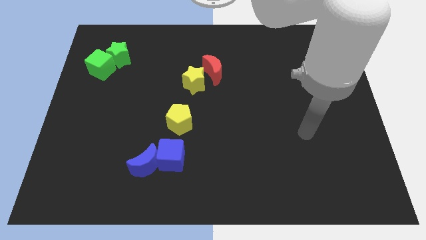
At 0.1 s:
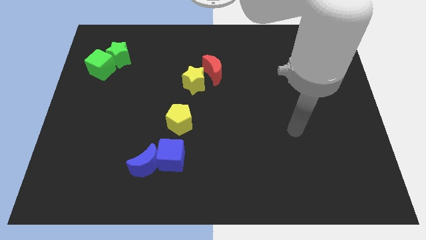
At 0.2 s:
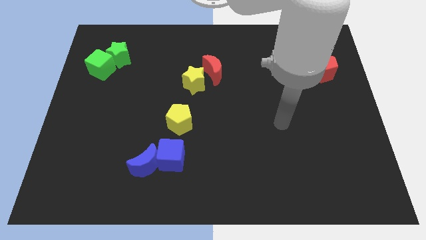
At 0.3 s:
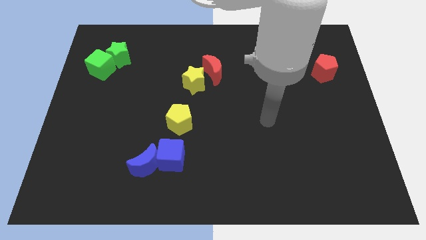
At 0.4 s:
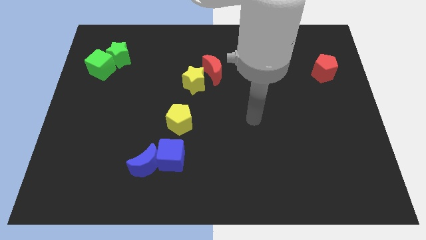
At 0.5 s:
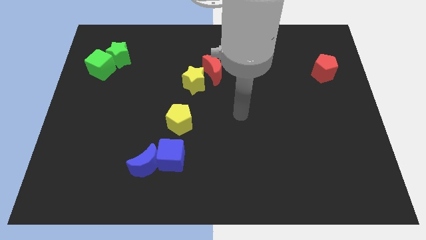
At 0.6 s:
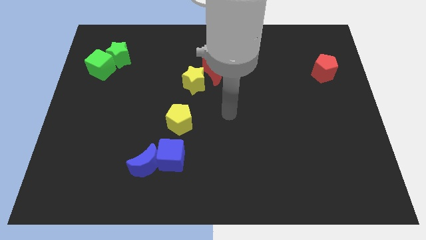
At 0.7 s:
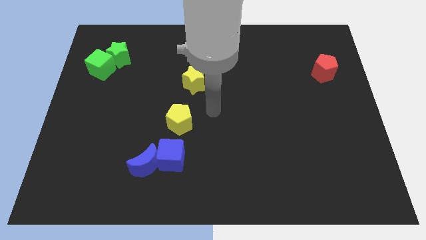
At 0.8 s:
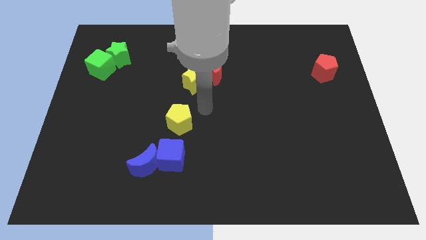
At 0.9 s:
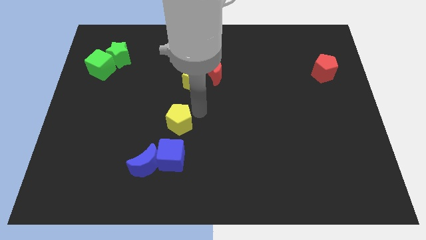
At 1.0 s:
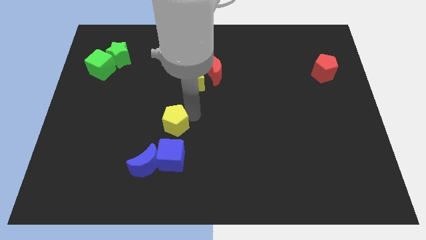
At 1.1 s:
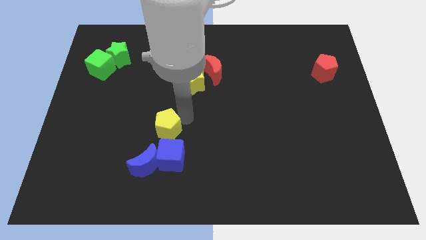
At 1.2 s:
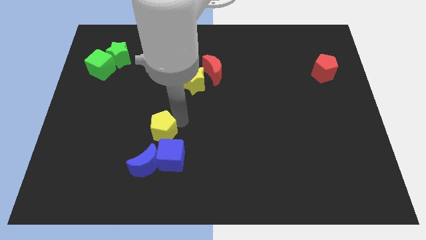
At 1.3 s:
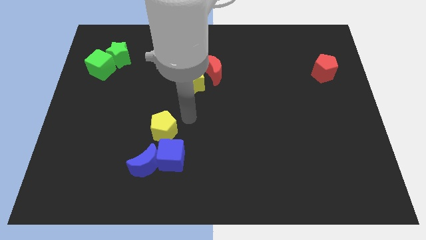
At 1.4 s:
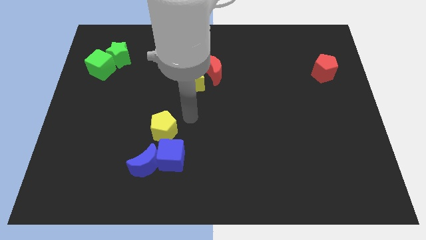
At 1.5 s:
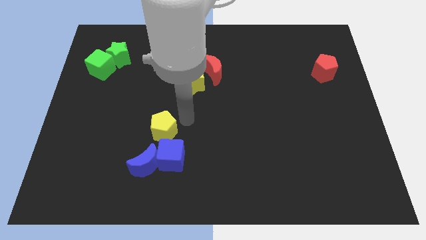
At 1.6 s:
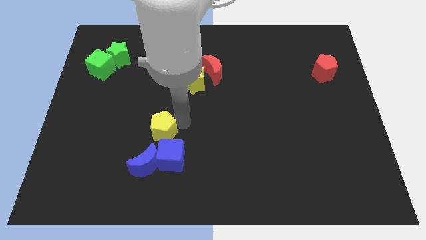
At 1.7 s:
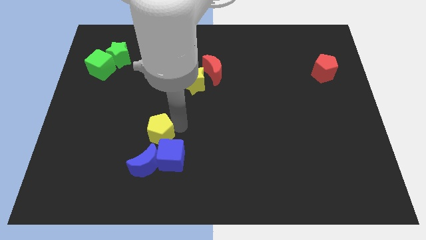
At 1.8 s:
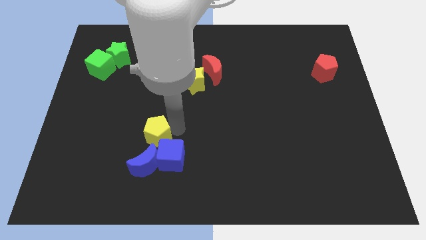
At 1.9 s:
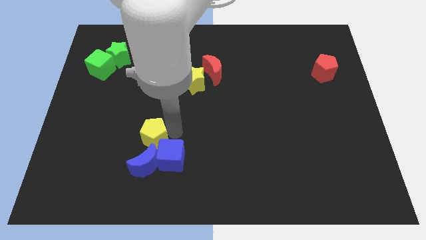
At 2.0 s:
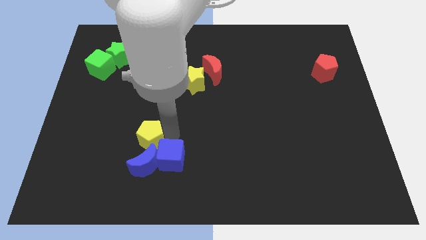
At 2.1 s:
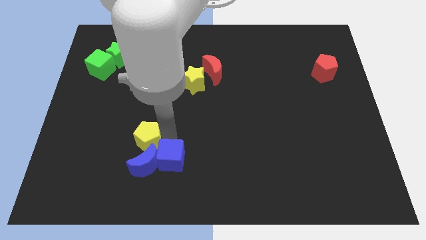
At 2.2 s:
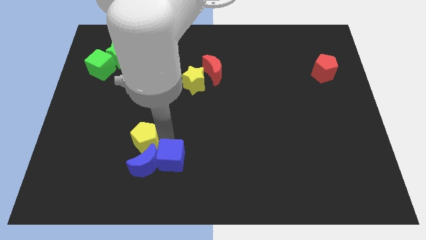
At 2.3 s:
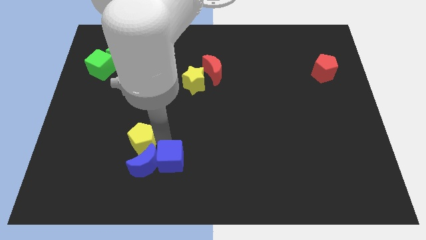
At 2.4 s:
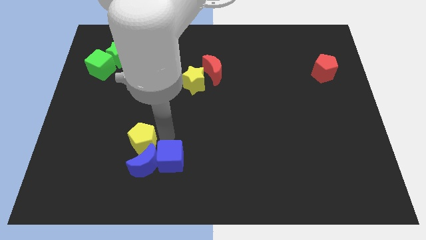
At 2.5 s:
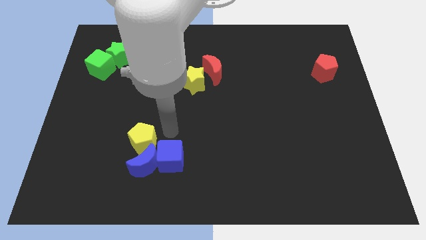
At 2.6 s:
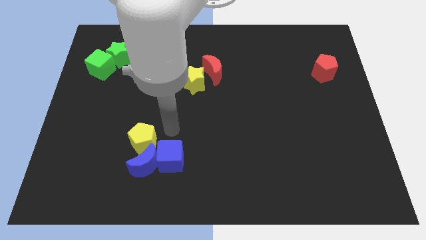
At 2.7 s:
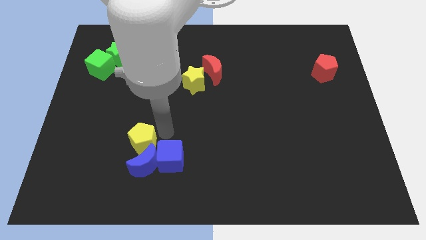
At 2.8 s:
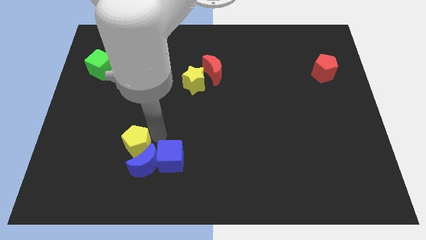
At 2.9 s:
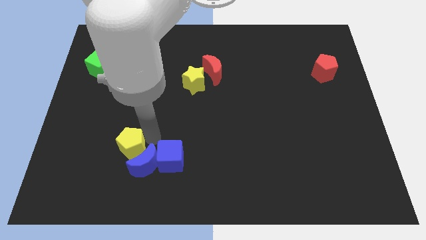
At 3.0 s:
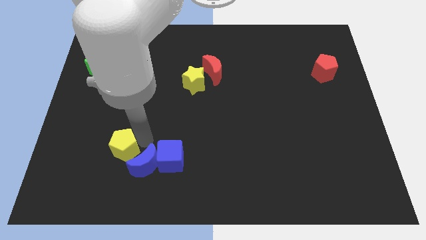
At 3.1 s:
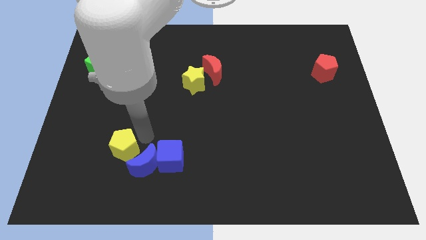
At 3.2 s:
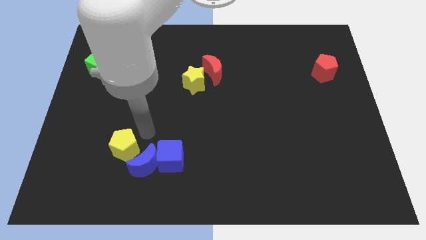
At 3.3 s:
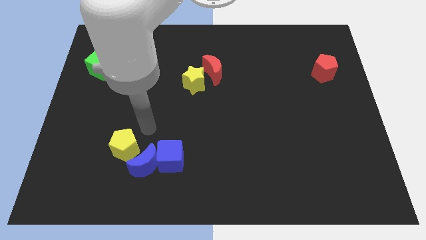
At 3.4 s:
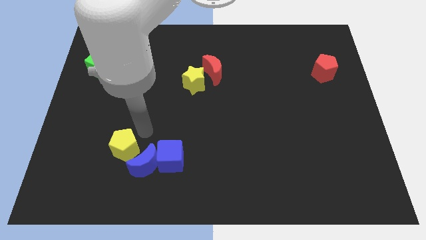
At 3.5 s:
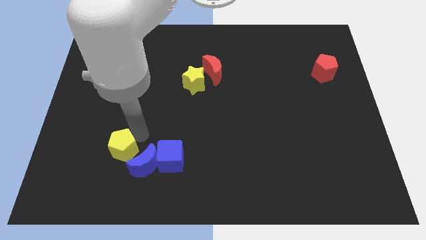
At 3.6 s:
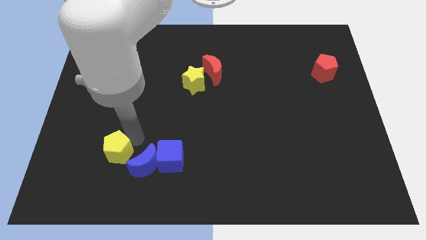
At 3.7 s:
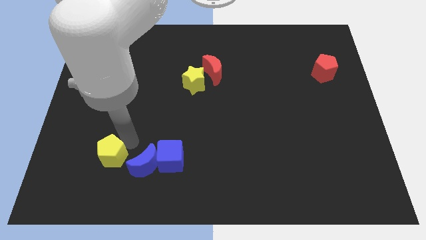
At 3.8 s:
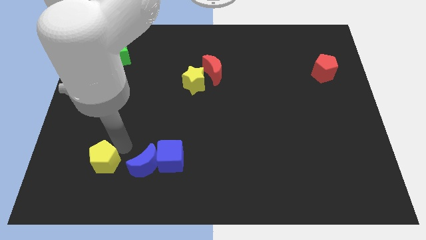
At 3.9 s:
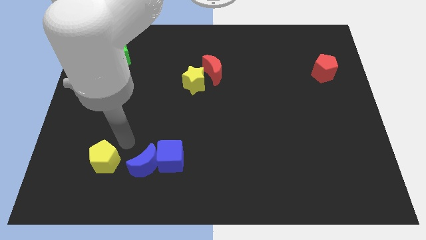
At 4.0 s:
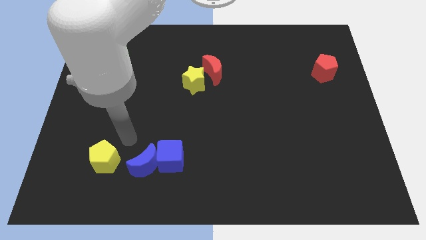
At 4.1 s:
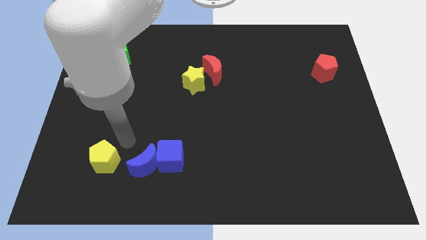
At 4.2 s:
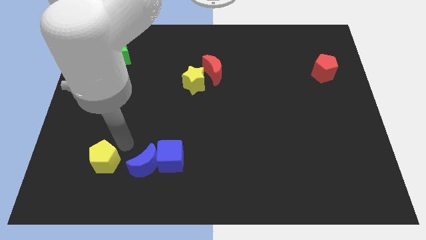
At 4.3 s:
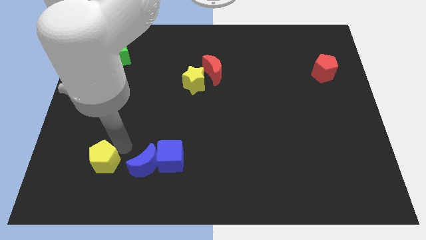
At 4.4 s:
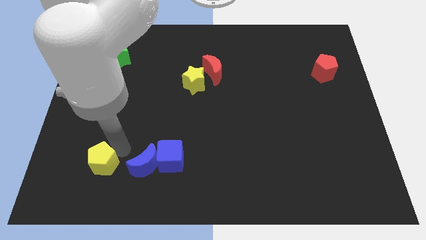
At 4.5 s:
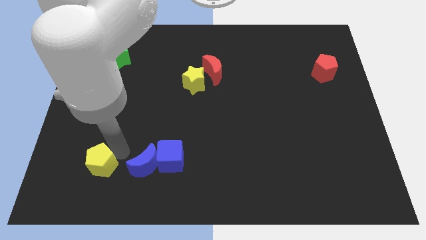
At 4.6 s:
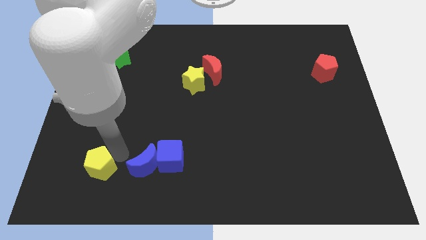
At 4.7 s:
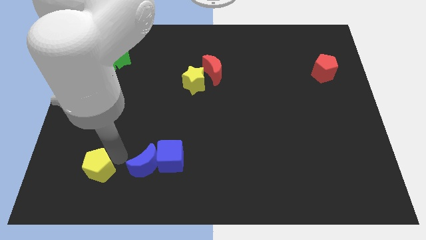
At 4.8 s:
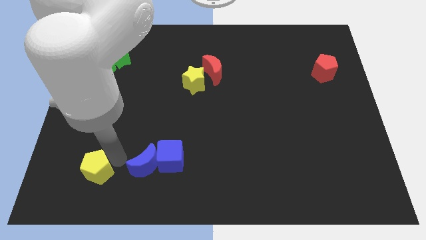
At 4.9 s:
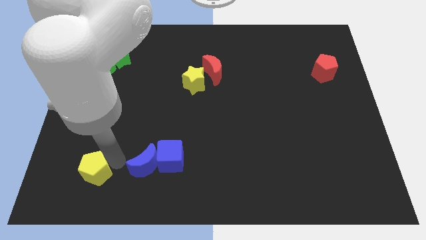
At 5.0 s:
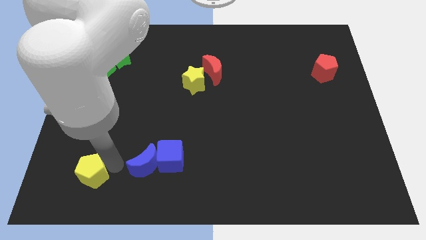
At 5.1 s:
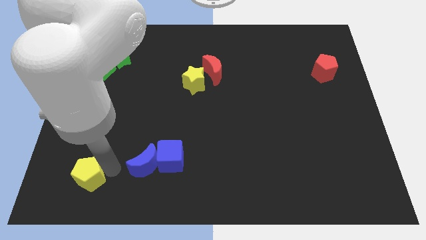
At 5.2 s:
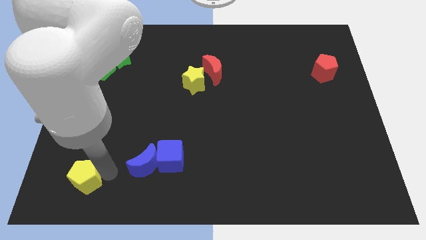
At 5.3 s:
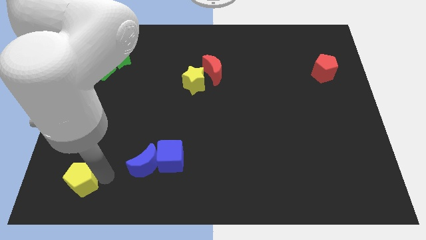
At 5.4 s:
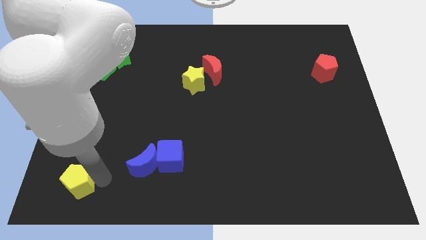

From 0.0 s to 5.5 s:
move the yellow pentagon to the bottom left

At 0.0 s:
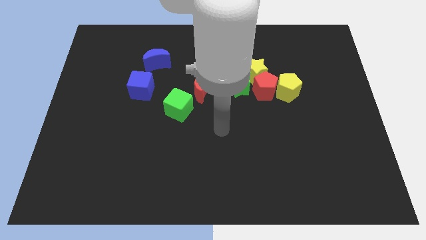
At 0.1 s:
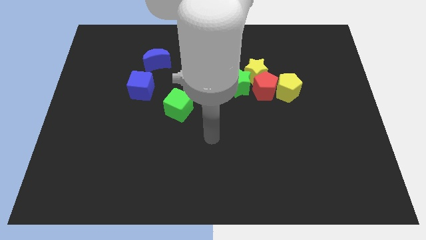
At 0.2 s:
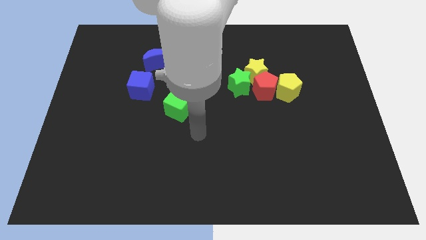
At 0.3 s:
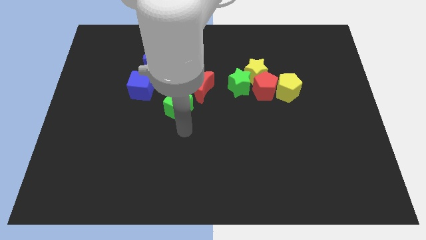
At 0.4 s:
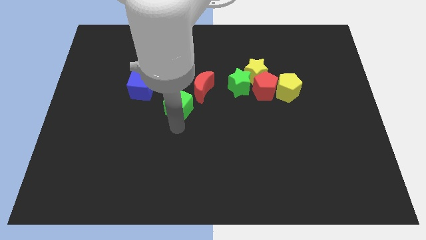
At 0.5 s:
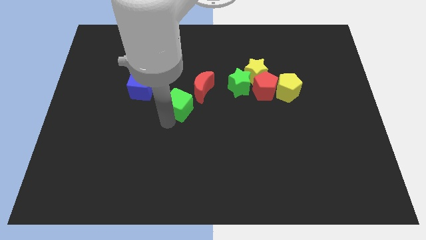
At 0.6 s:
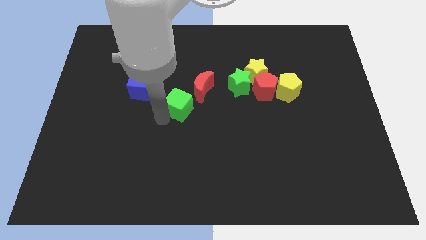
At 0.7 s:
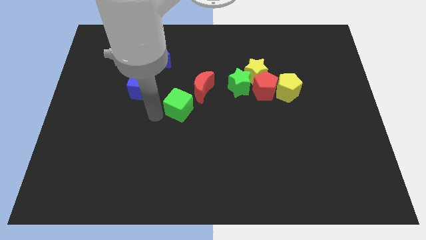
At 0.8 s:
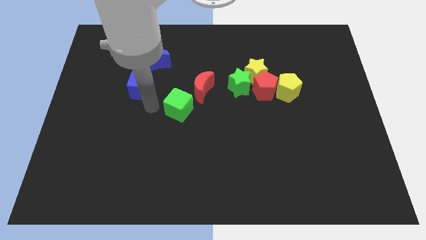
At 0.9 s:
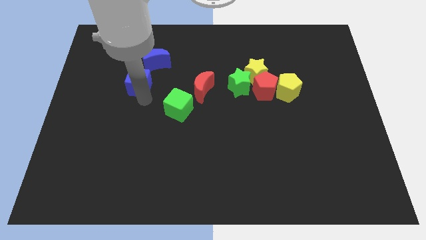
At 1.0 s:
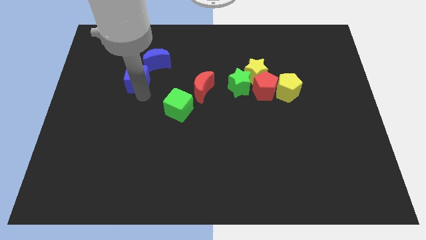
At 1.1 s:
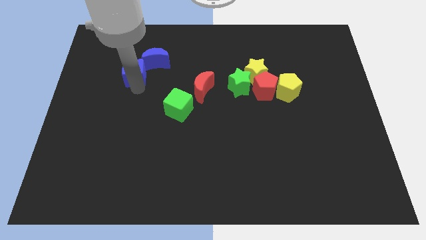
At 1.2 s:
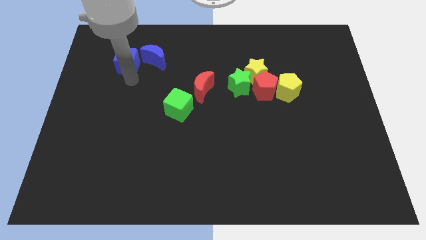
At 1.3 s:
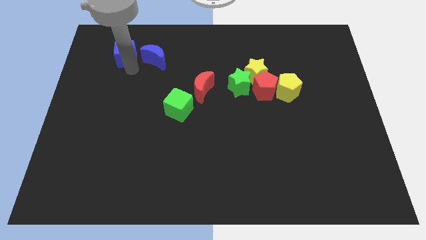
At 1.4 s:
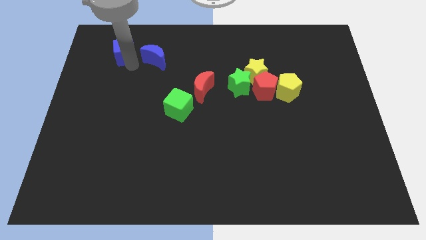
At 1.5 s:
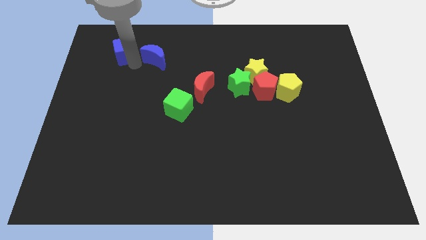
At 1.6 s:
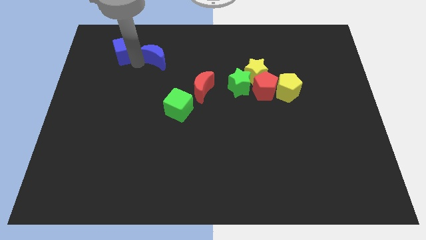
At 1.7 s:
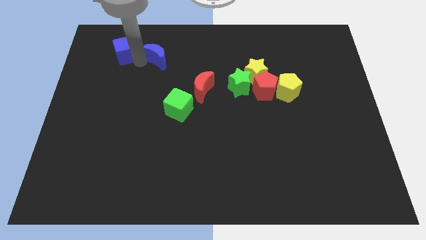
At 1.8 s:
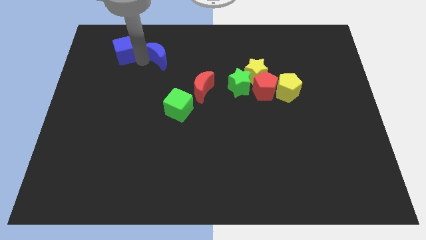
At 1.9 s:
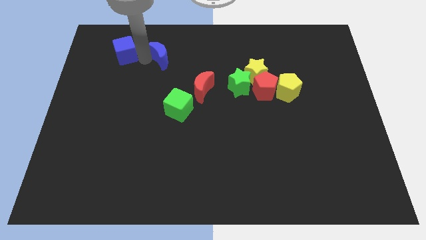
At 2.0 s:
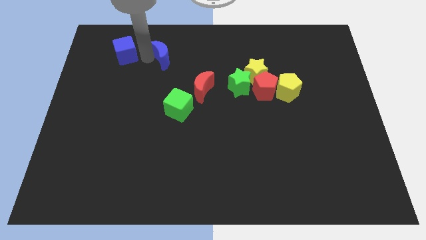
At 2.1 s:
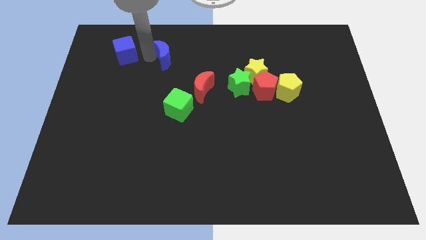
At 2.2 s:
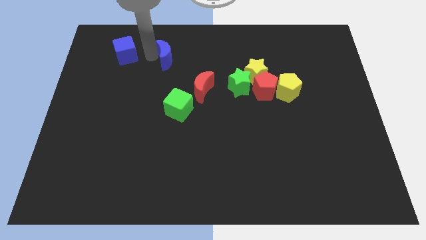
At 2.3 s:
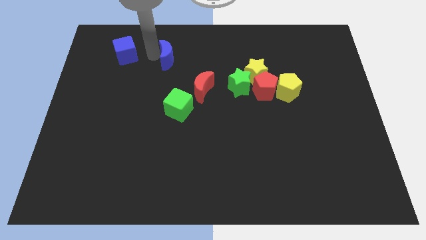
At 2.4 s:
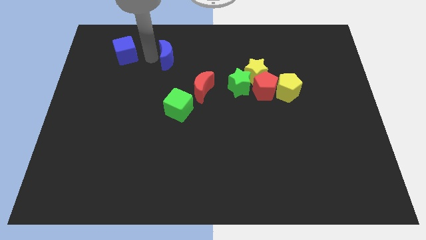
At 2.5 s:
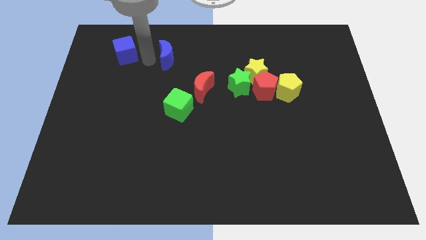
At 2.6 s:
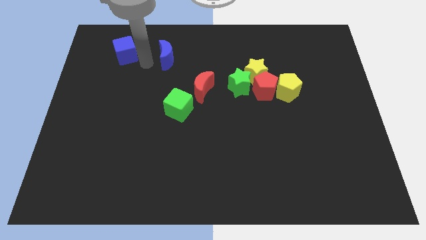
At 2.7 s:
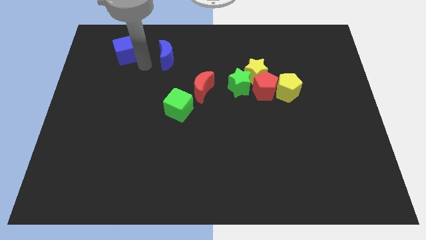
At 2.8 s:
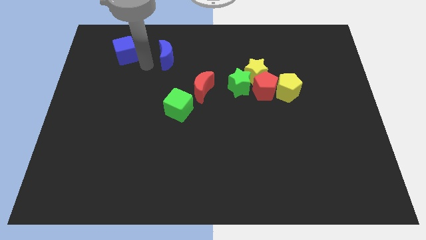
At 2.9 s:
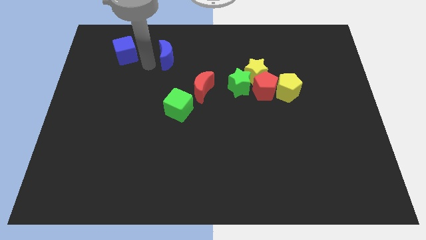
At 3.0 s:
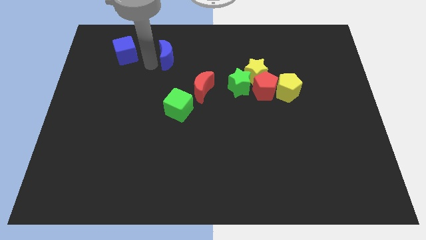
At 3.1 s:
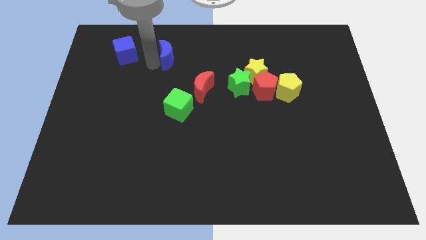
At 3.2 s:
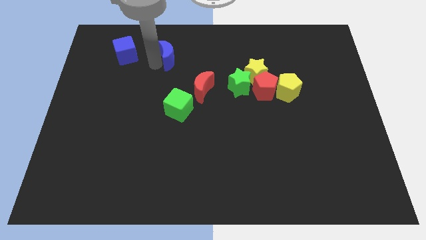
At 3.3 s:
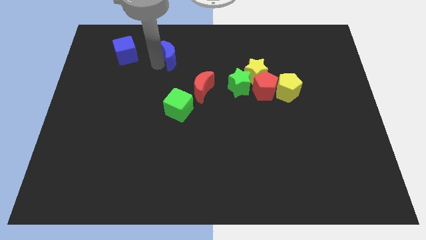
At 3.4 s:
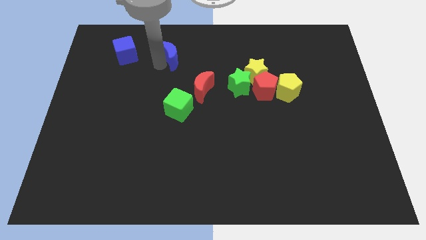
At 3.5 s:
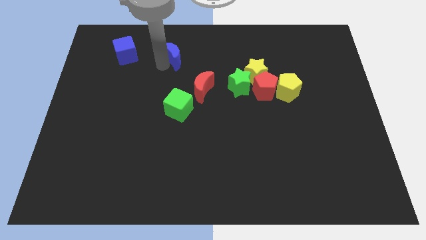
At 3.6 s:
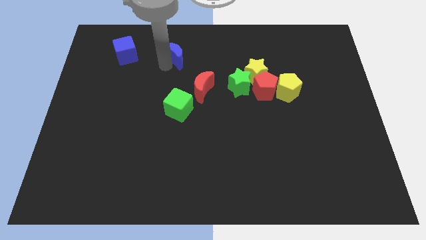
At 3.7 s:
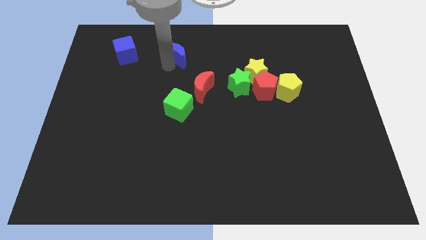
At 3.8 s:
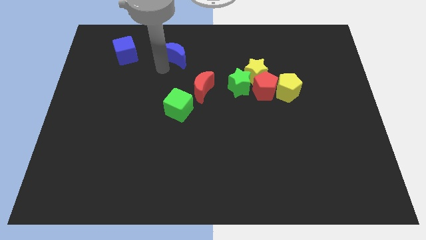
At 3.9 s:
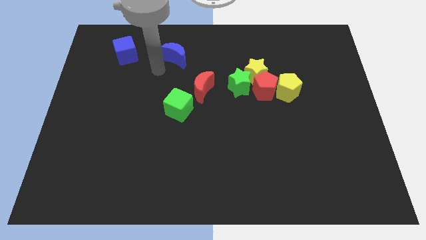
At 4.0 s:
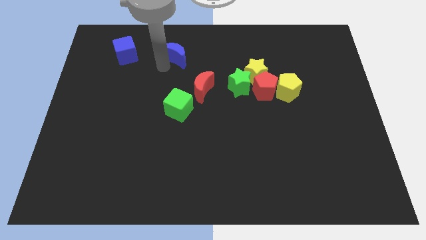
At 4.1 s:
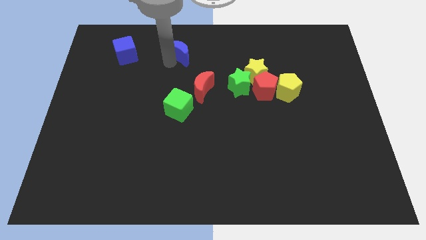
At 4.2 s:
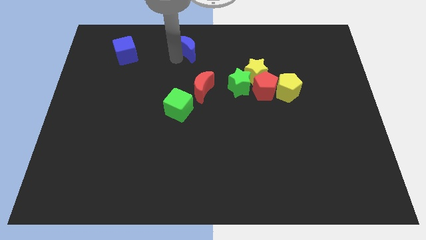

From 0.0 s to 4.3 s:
push the blue moon to the top
